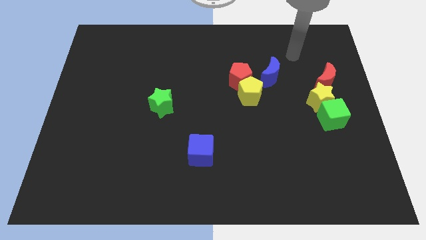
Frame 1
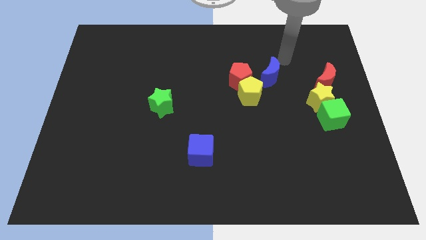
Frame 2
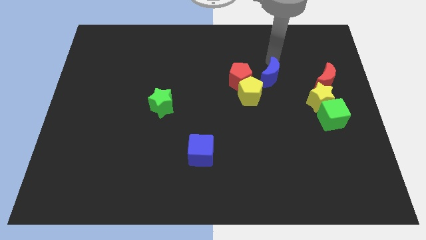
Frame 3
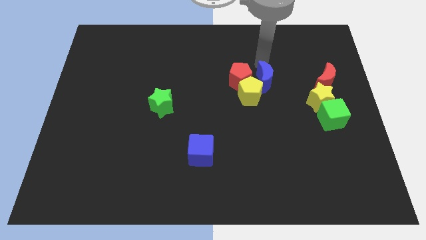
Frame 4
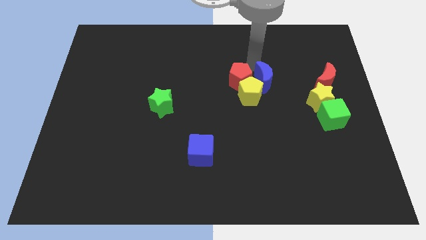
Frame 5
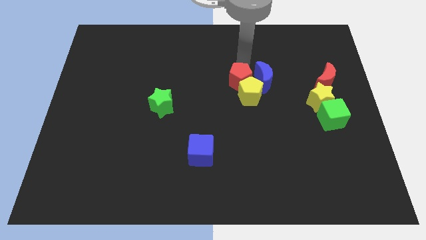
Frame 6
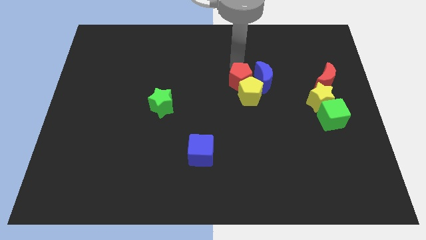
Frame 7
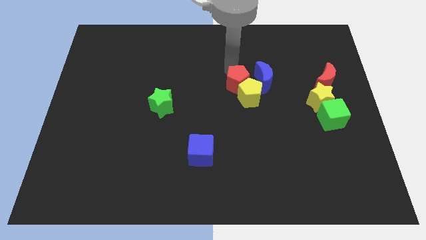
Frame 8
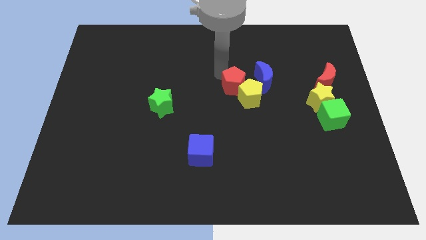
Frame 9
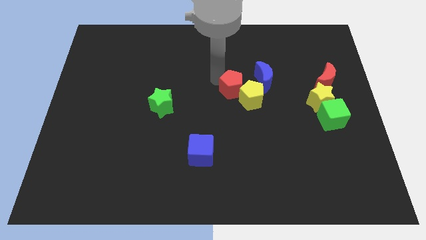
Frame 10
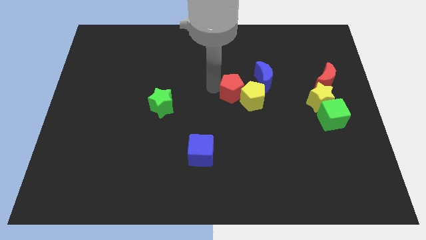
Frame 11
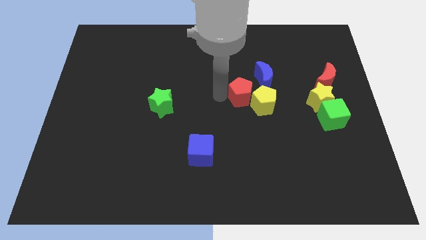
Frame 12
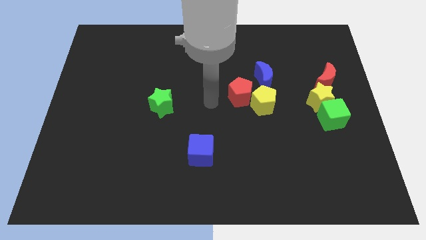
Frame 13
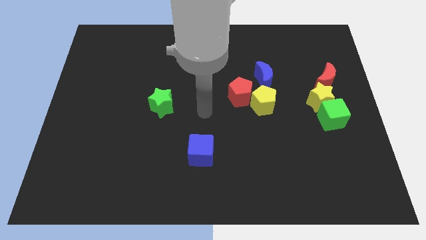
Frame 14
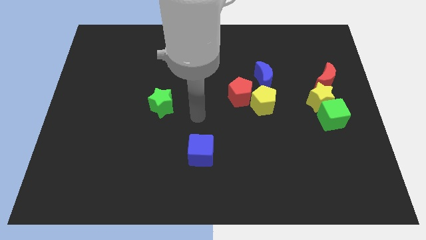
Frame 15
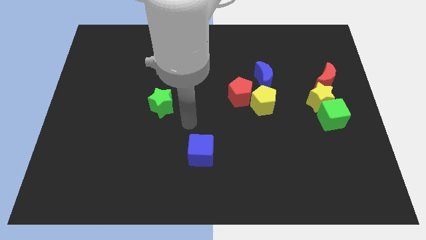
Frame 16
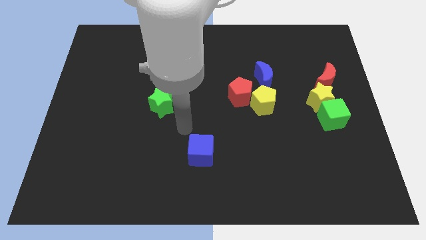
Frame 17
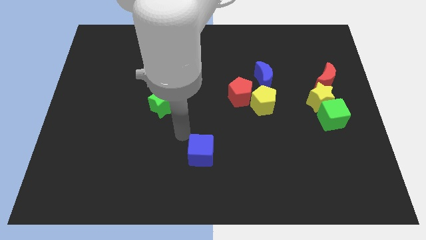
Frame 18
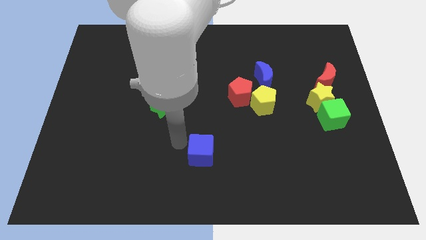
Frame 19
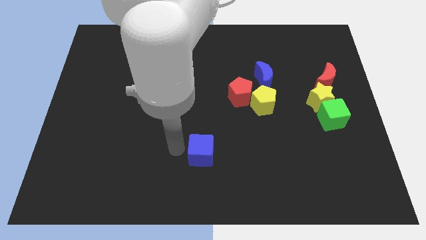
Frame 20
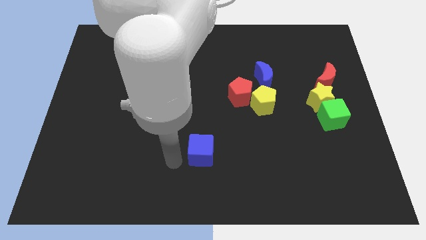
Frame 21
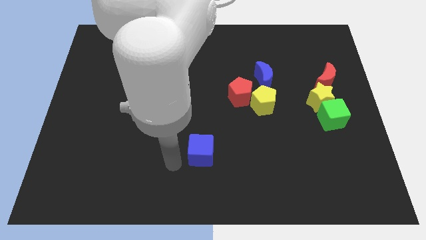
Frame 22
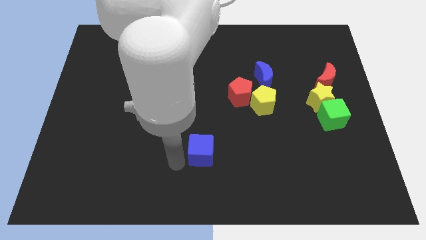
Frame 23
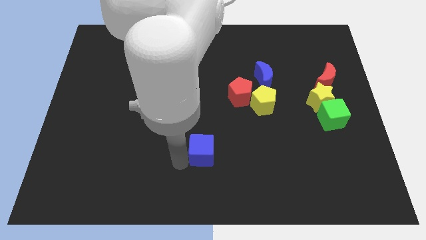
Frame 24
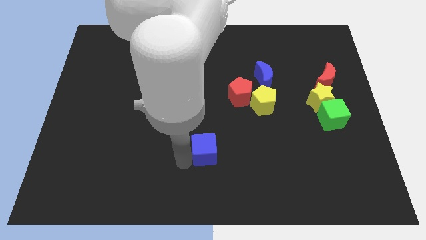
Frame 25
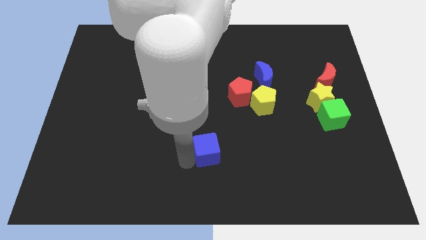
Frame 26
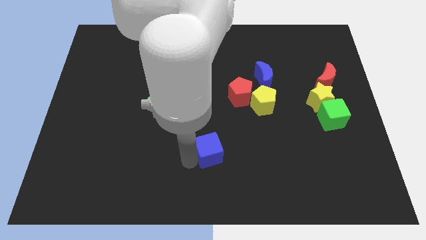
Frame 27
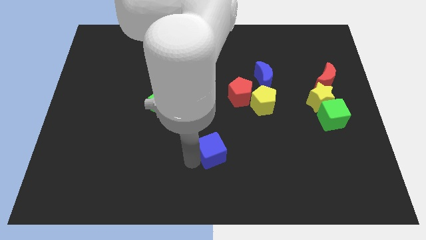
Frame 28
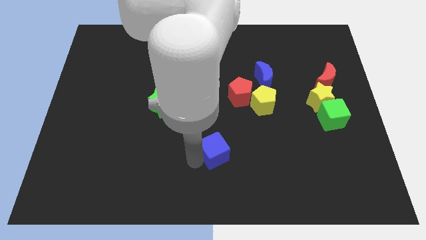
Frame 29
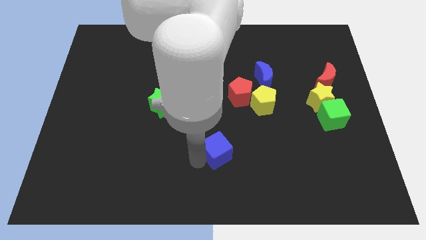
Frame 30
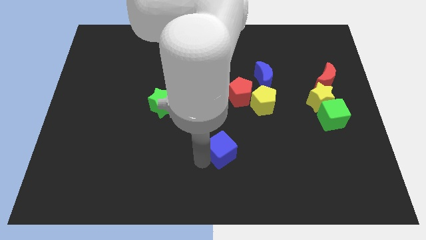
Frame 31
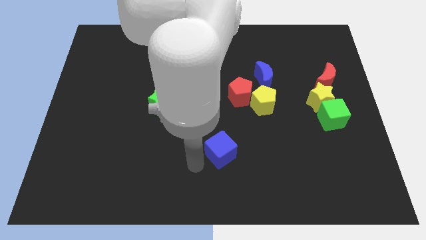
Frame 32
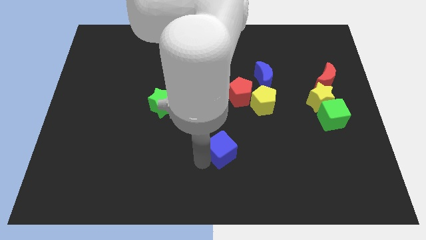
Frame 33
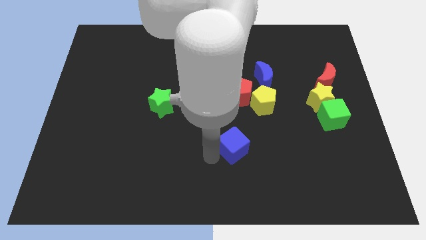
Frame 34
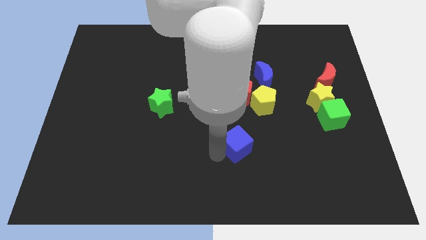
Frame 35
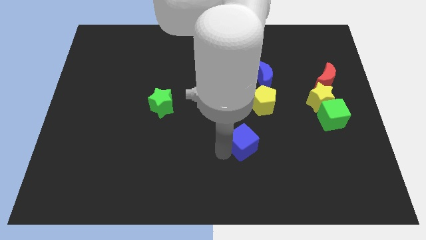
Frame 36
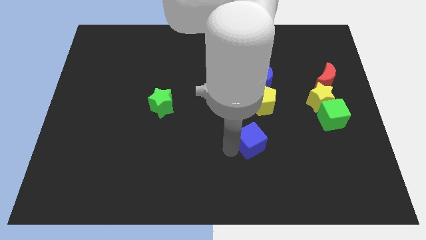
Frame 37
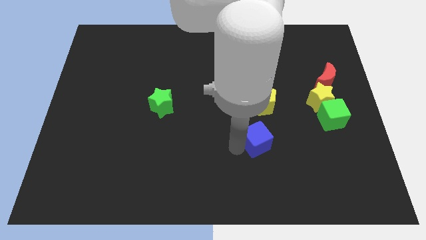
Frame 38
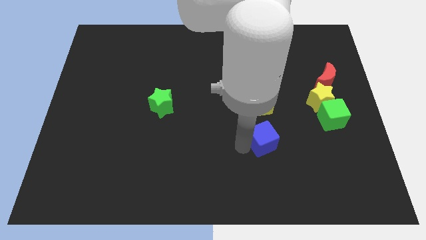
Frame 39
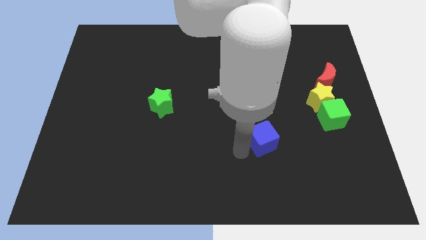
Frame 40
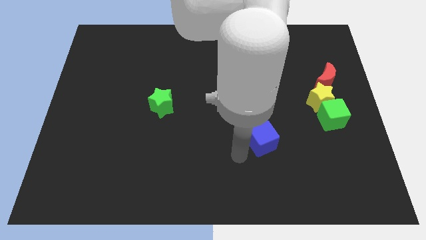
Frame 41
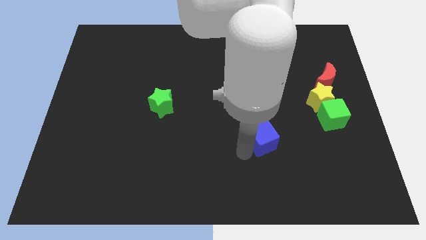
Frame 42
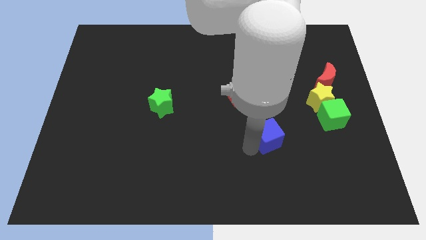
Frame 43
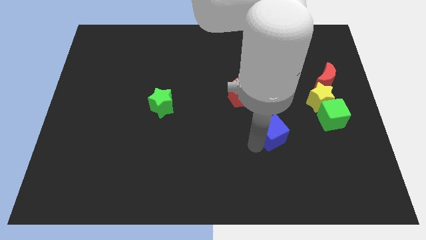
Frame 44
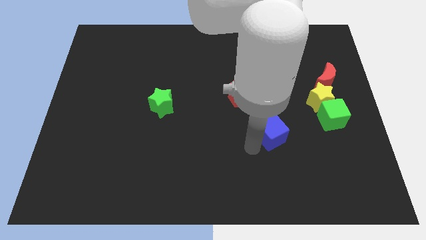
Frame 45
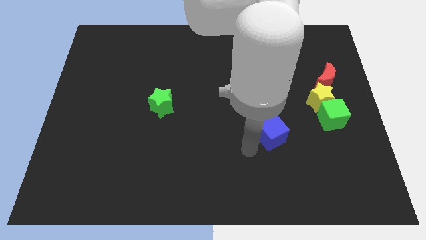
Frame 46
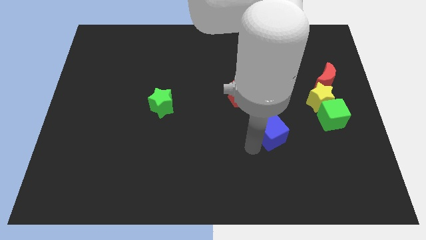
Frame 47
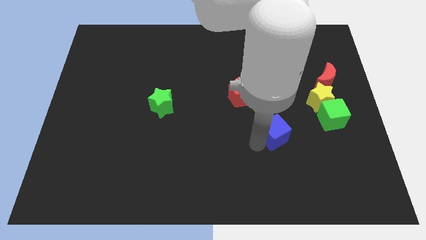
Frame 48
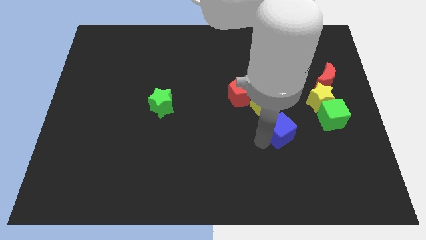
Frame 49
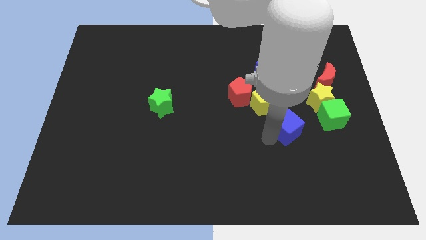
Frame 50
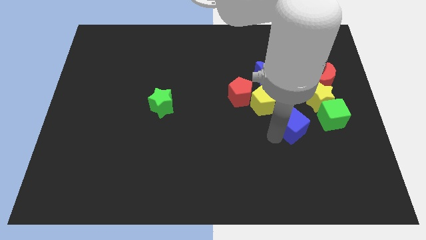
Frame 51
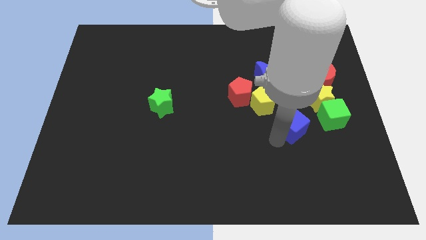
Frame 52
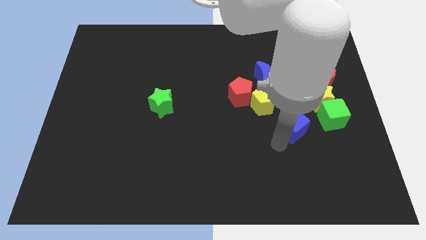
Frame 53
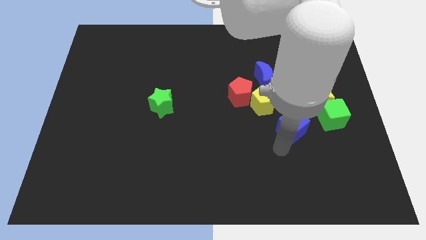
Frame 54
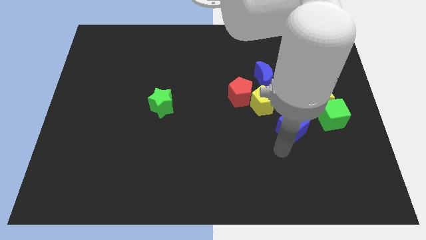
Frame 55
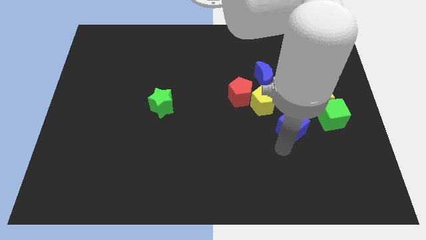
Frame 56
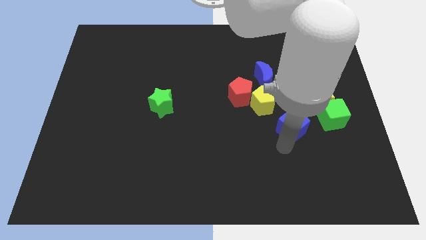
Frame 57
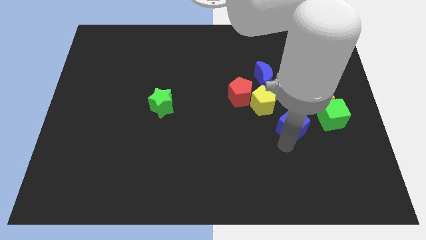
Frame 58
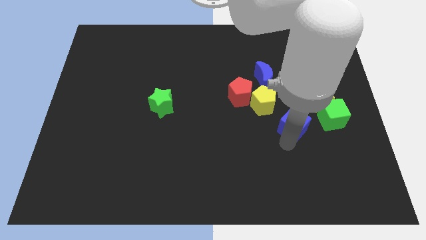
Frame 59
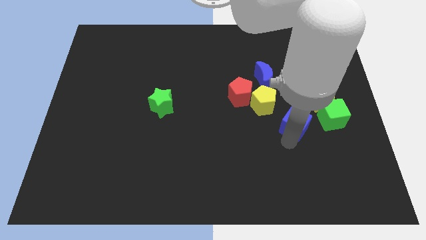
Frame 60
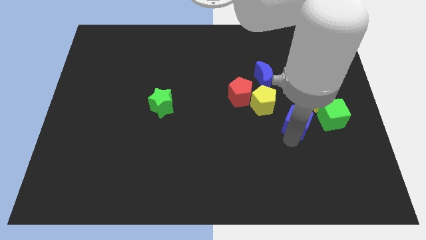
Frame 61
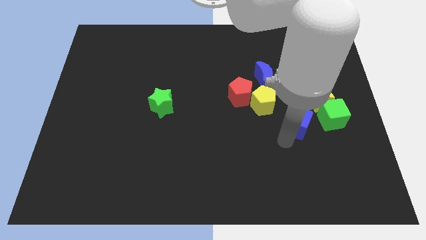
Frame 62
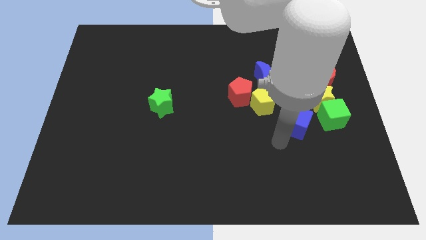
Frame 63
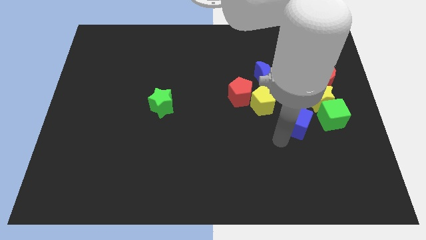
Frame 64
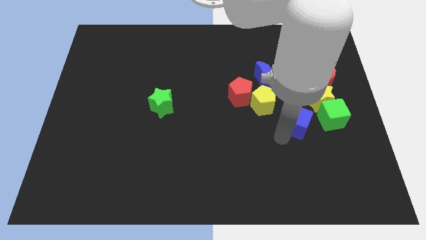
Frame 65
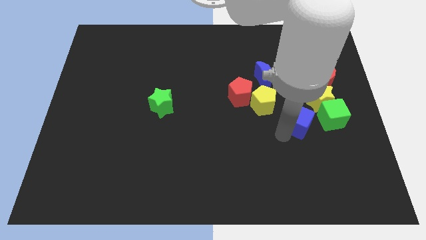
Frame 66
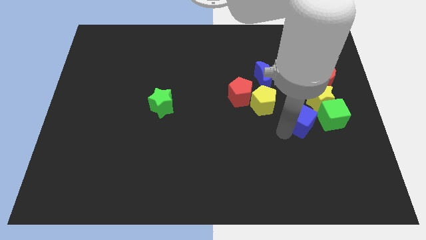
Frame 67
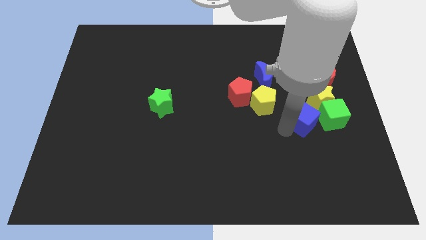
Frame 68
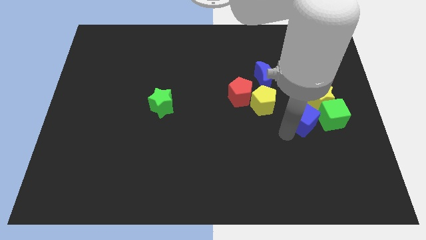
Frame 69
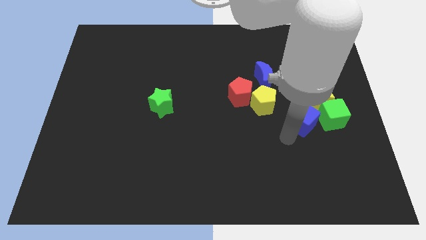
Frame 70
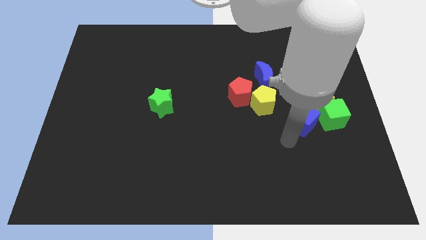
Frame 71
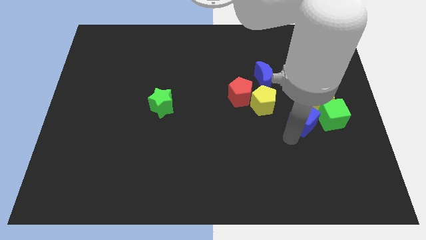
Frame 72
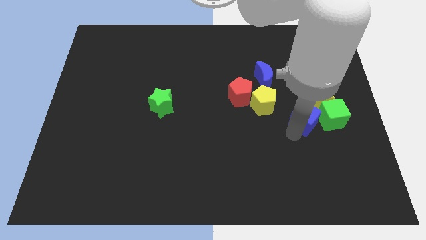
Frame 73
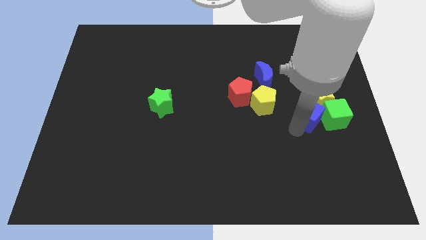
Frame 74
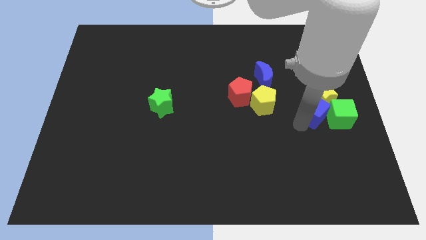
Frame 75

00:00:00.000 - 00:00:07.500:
move the blue cube towards the yellow star

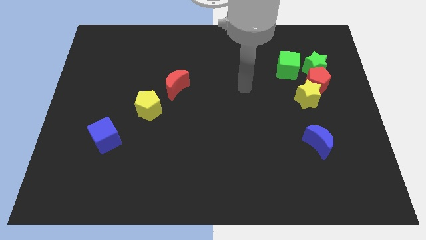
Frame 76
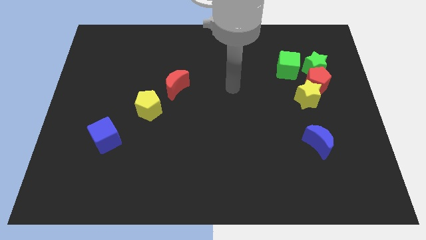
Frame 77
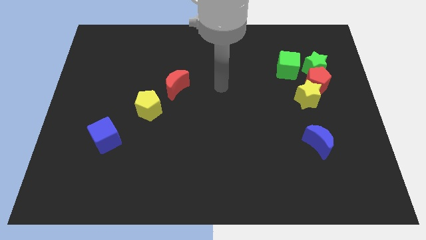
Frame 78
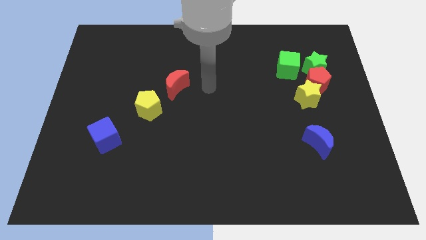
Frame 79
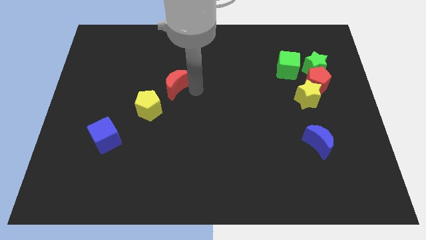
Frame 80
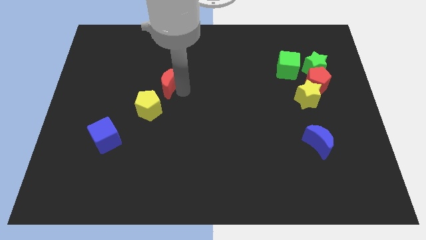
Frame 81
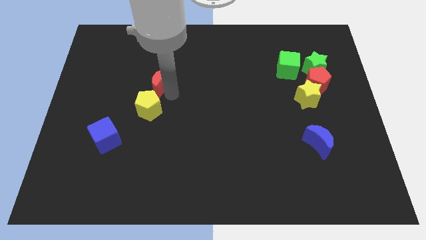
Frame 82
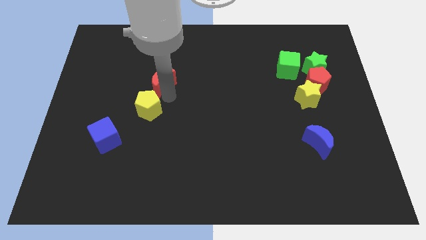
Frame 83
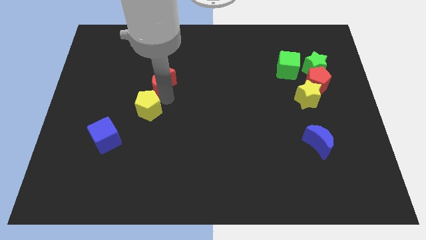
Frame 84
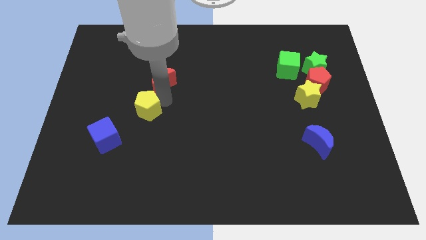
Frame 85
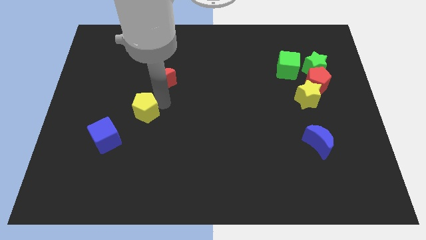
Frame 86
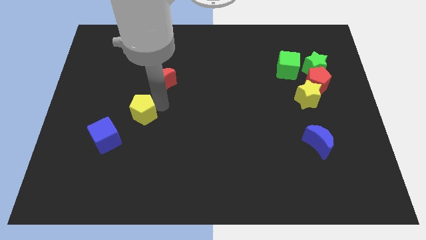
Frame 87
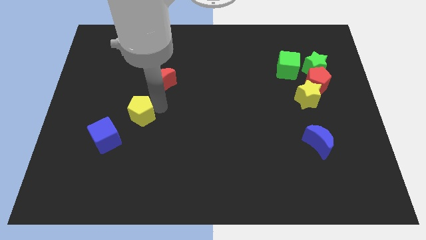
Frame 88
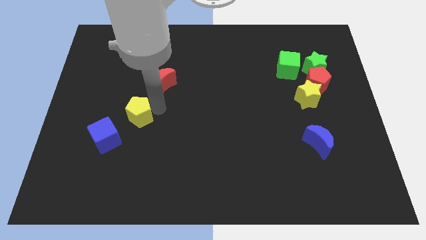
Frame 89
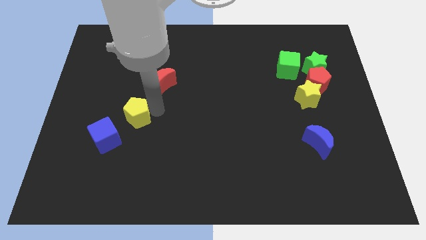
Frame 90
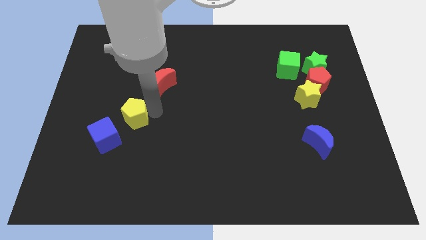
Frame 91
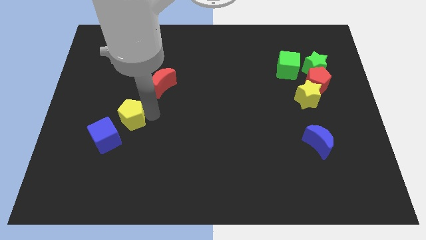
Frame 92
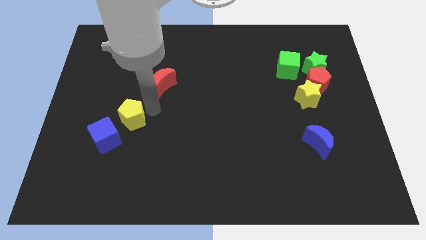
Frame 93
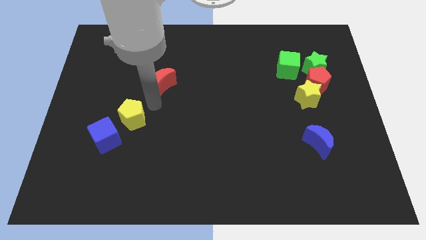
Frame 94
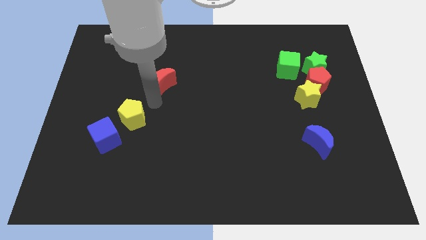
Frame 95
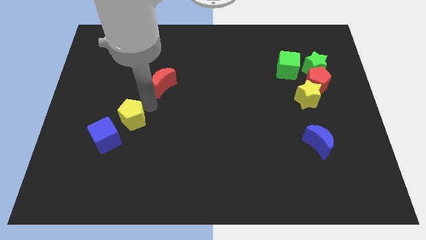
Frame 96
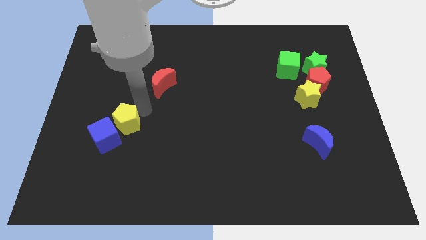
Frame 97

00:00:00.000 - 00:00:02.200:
push the yellow pentagon to the blue cube
